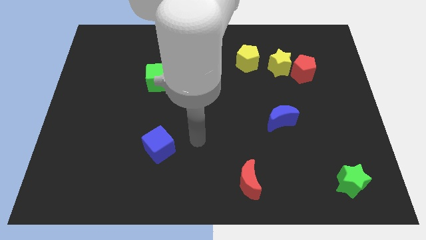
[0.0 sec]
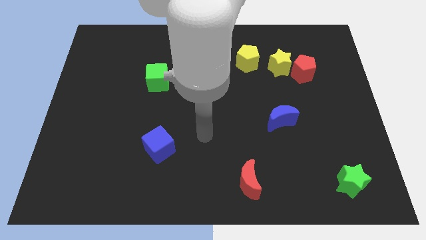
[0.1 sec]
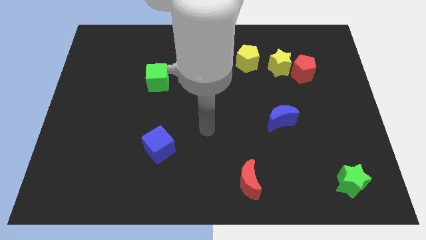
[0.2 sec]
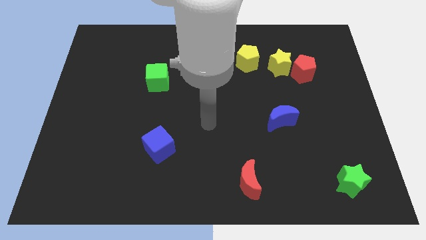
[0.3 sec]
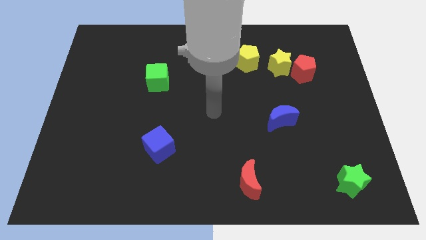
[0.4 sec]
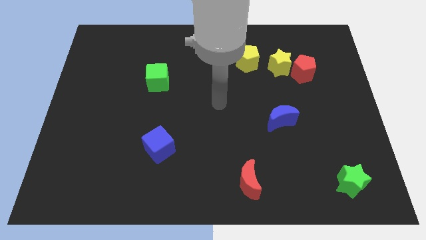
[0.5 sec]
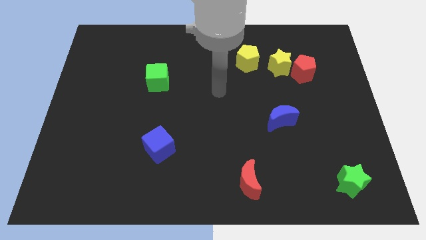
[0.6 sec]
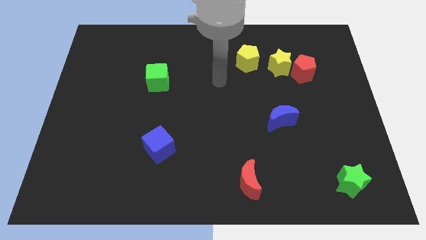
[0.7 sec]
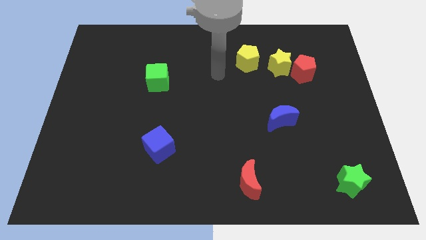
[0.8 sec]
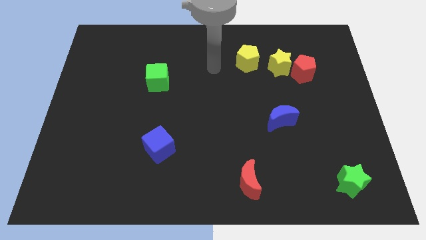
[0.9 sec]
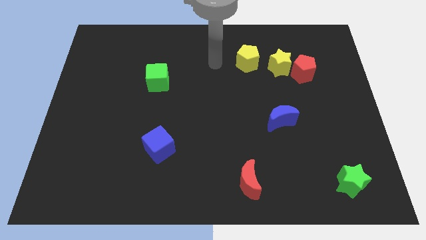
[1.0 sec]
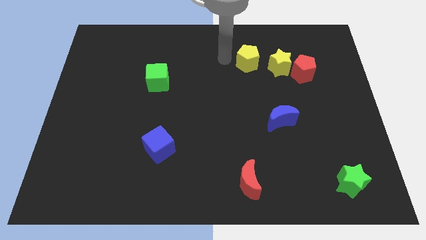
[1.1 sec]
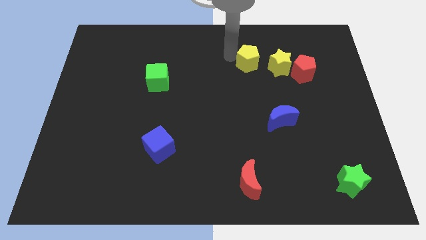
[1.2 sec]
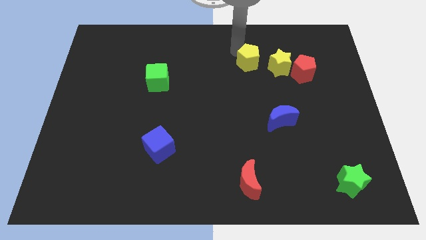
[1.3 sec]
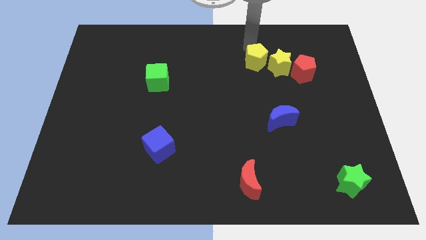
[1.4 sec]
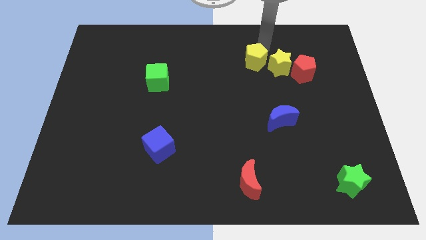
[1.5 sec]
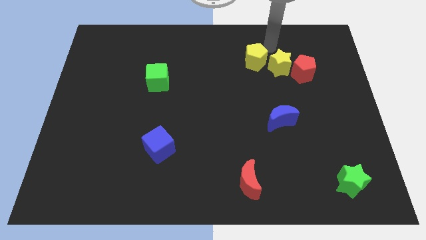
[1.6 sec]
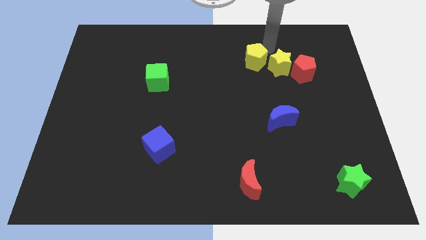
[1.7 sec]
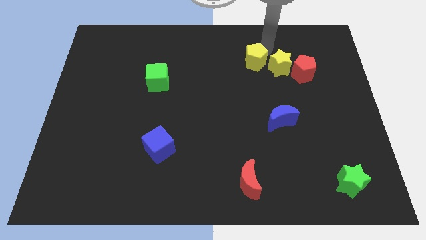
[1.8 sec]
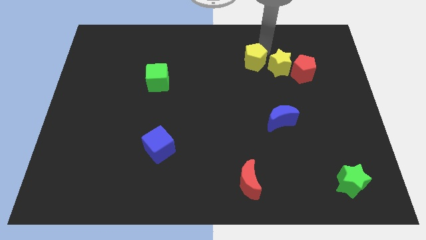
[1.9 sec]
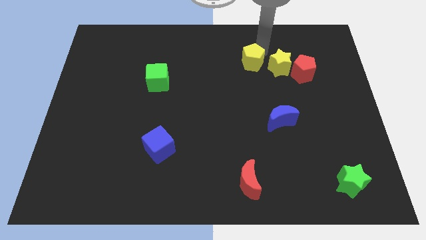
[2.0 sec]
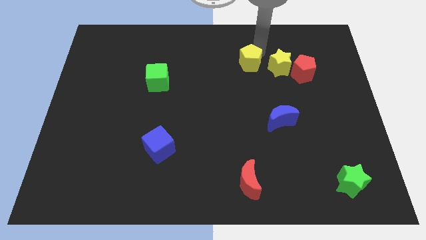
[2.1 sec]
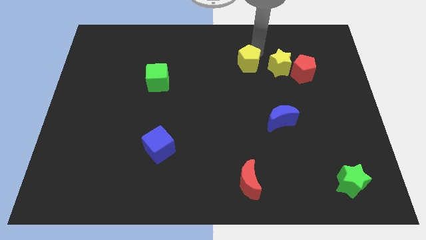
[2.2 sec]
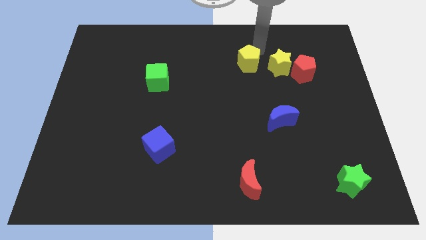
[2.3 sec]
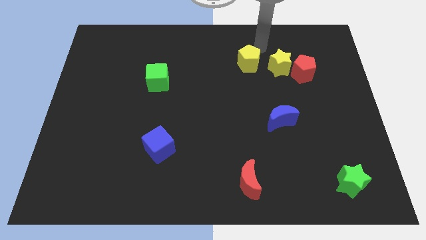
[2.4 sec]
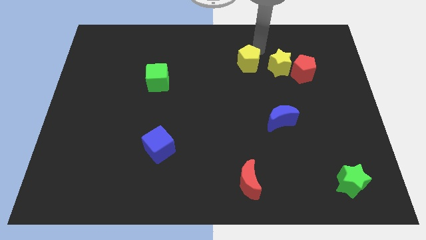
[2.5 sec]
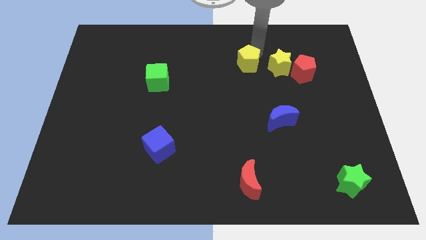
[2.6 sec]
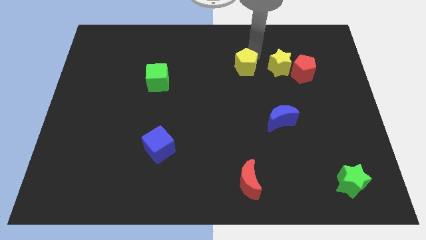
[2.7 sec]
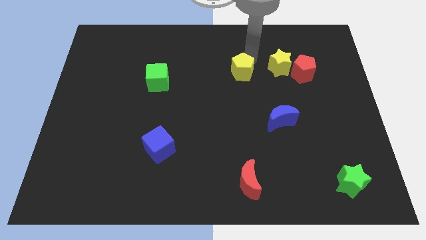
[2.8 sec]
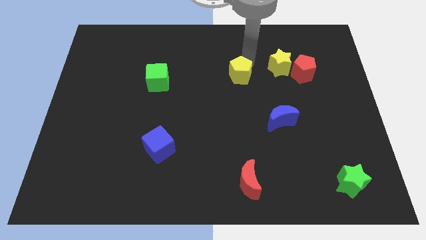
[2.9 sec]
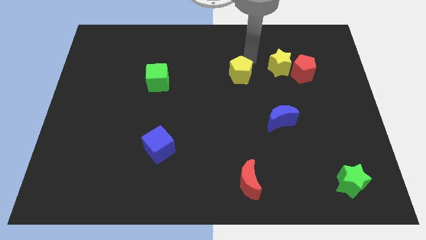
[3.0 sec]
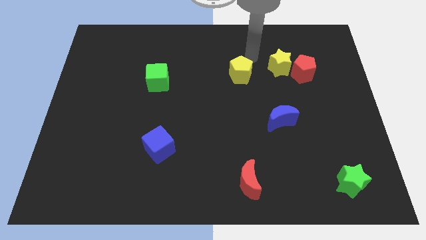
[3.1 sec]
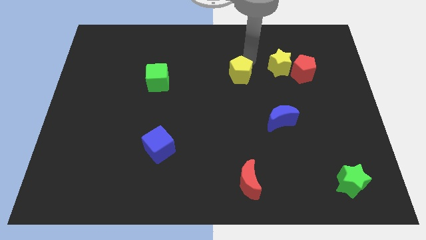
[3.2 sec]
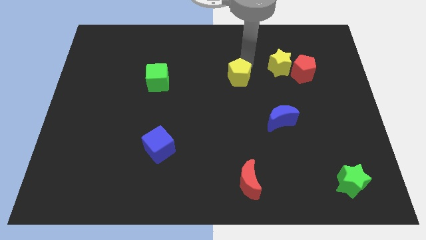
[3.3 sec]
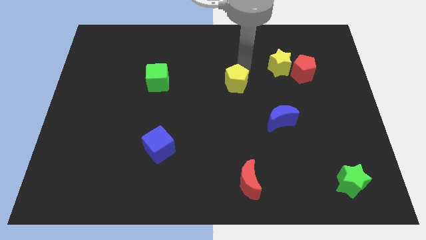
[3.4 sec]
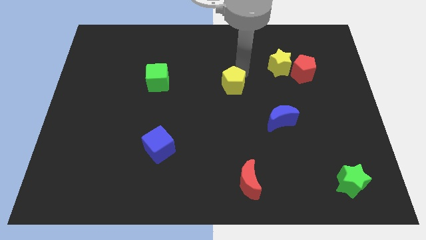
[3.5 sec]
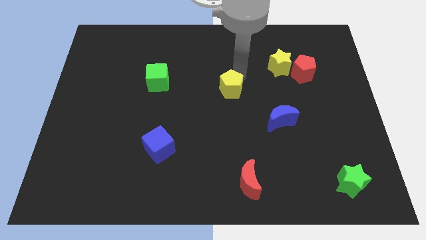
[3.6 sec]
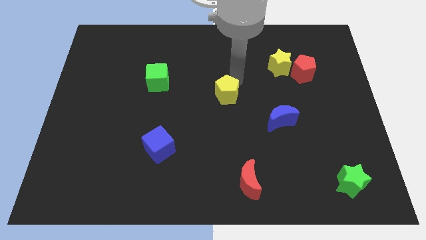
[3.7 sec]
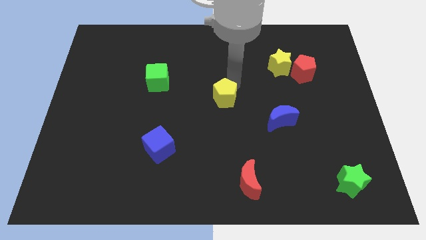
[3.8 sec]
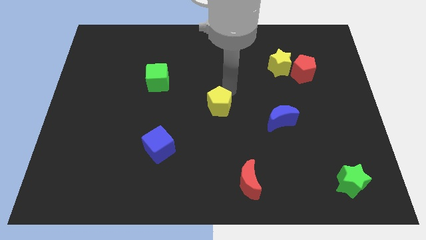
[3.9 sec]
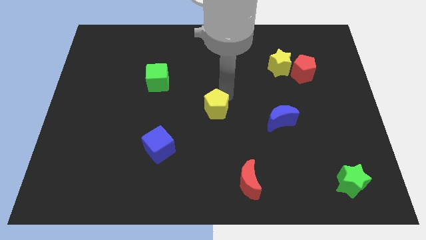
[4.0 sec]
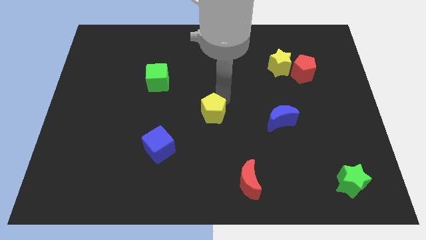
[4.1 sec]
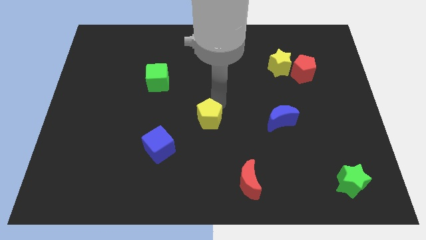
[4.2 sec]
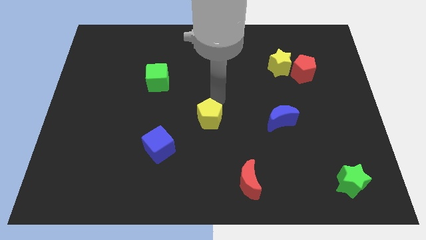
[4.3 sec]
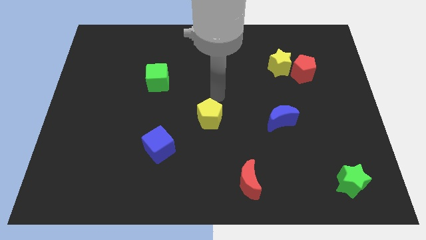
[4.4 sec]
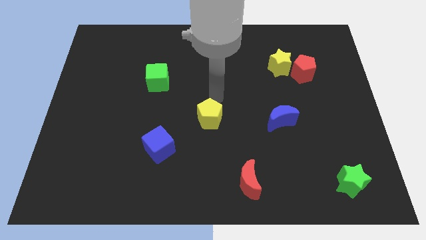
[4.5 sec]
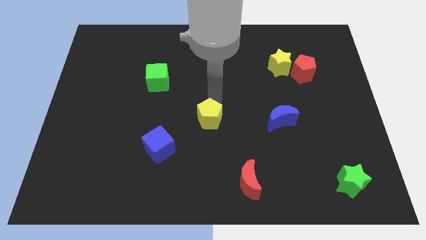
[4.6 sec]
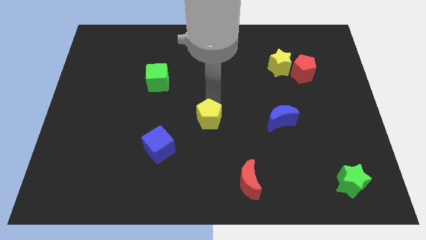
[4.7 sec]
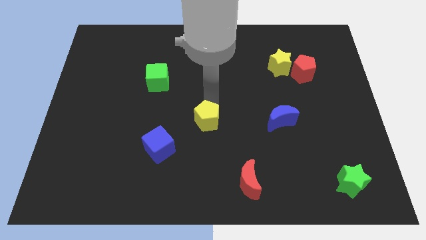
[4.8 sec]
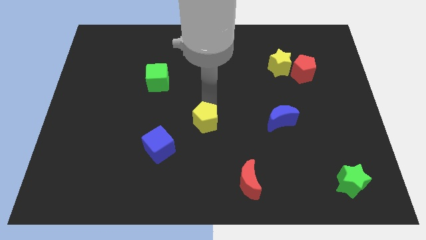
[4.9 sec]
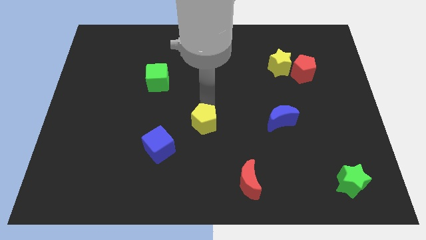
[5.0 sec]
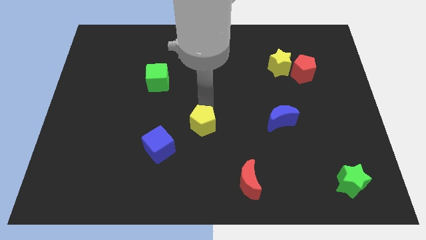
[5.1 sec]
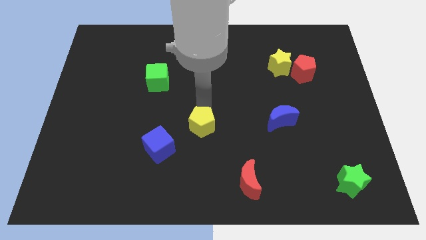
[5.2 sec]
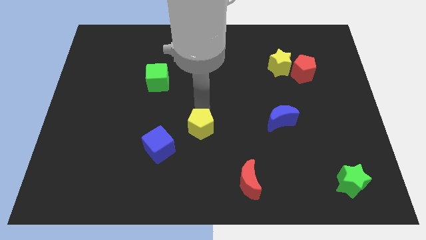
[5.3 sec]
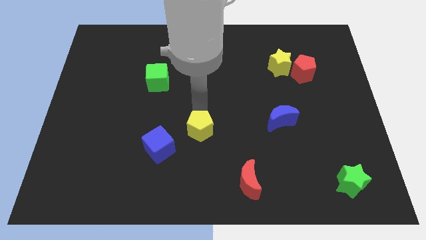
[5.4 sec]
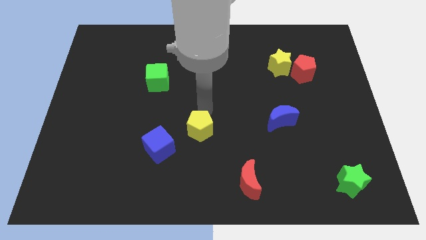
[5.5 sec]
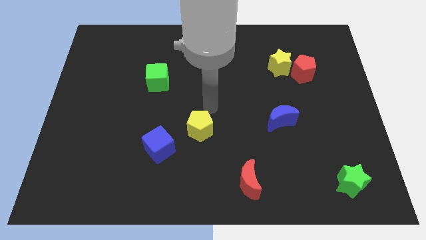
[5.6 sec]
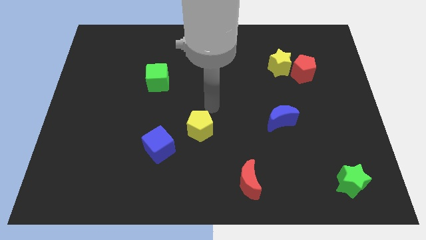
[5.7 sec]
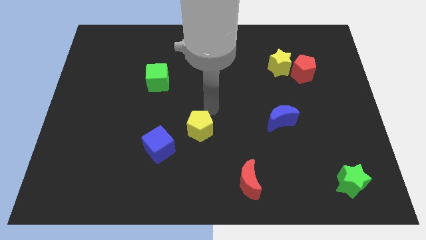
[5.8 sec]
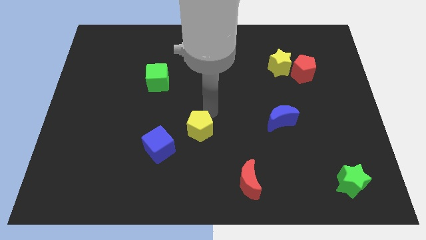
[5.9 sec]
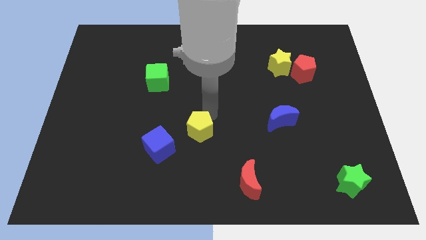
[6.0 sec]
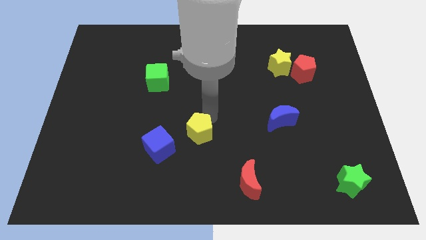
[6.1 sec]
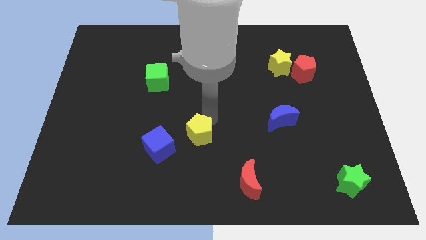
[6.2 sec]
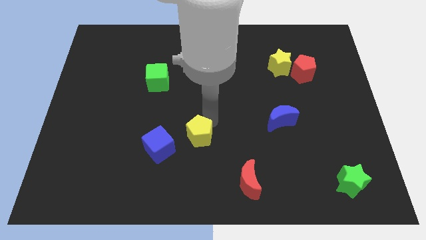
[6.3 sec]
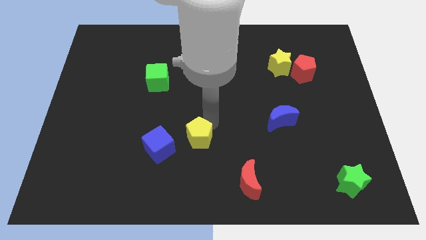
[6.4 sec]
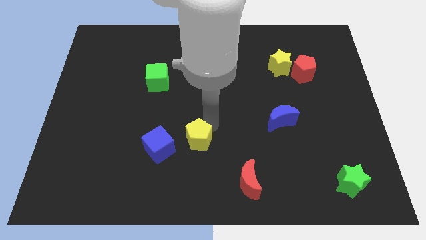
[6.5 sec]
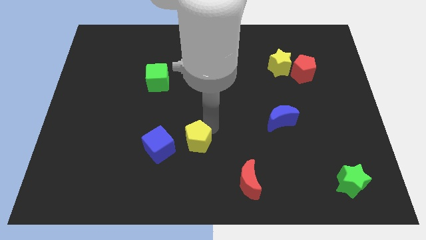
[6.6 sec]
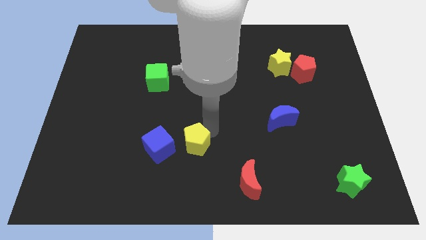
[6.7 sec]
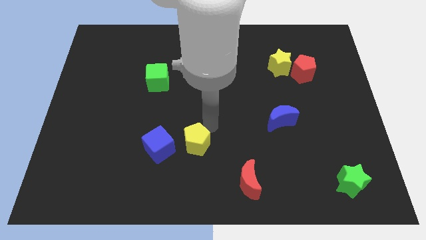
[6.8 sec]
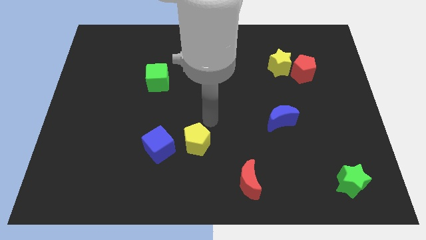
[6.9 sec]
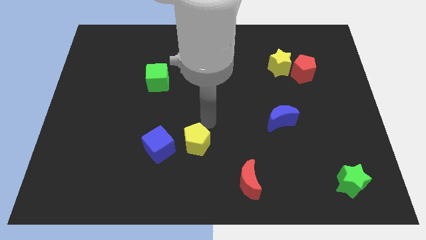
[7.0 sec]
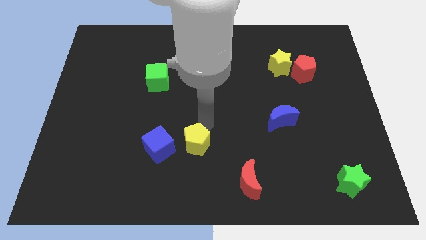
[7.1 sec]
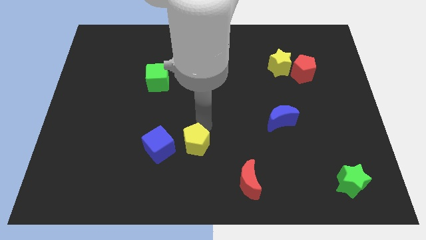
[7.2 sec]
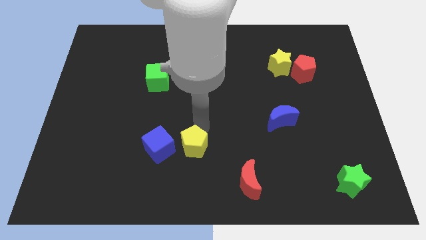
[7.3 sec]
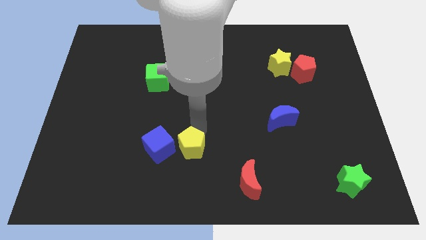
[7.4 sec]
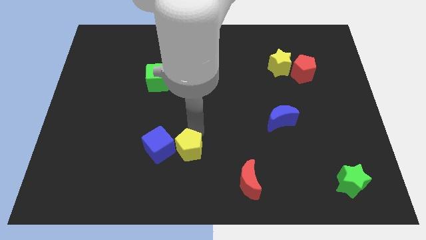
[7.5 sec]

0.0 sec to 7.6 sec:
push the yellow pentagon to the bottom right of the blue cube

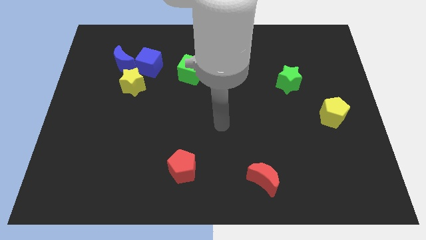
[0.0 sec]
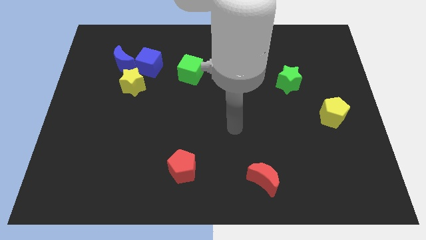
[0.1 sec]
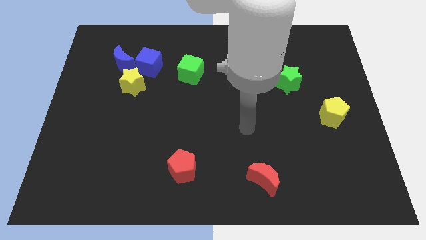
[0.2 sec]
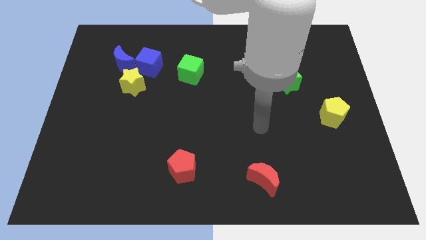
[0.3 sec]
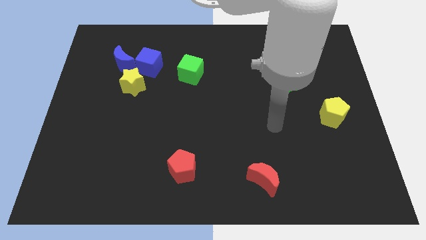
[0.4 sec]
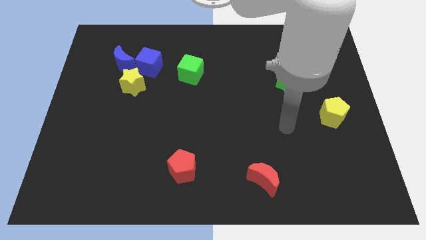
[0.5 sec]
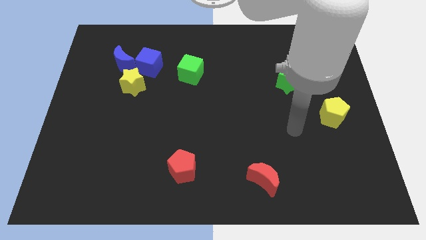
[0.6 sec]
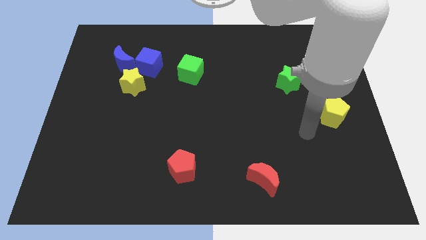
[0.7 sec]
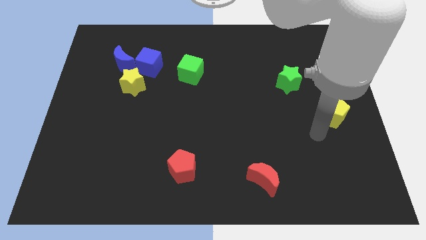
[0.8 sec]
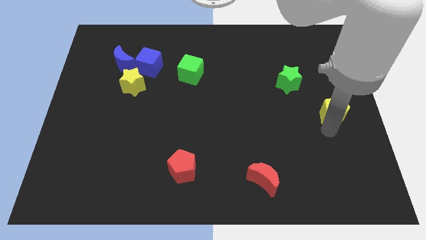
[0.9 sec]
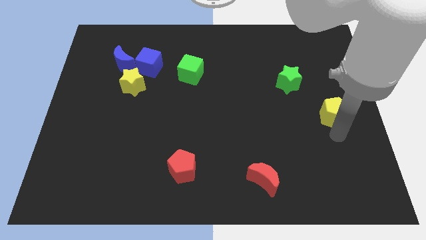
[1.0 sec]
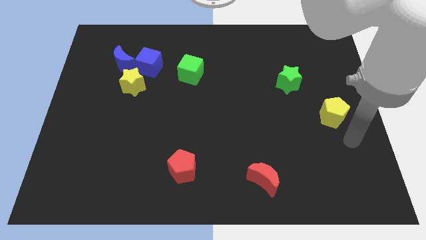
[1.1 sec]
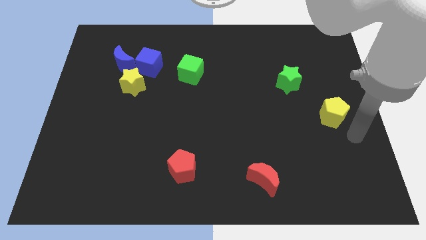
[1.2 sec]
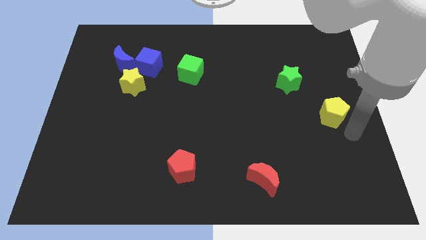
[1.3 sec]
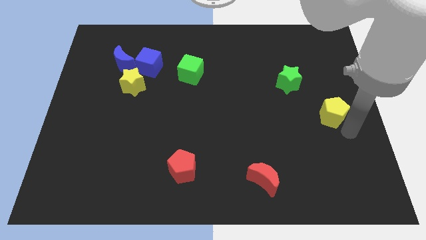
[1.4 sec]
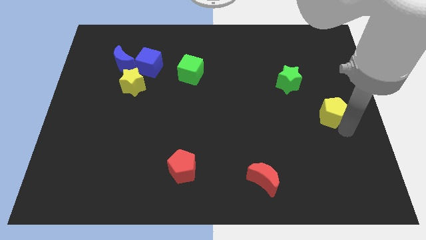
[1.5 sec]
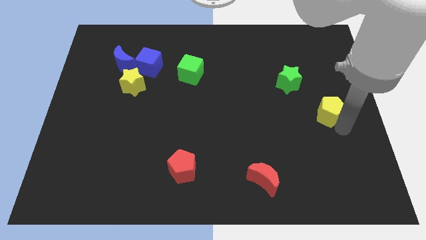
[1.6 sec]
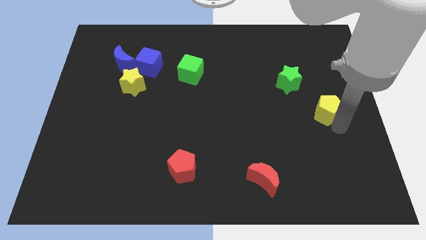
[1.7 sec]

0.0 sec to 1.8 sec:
move the yellow pentagon to the bottom right of the green star
